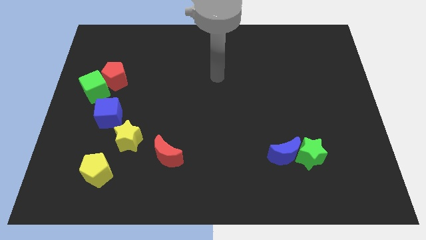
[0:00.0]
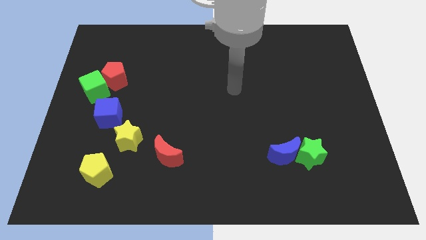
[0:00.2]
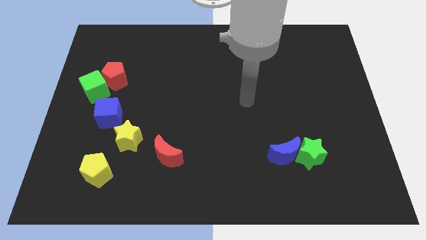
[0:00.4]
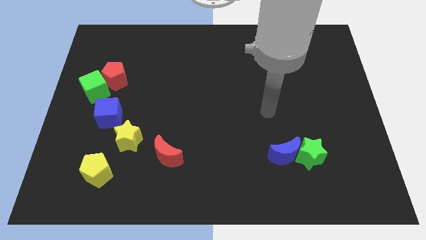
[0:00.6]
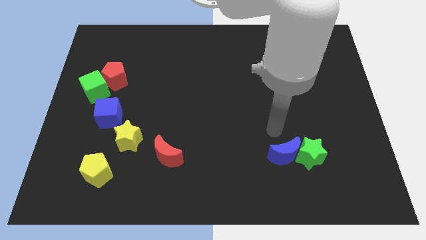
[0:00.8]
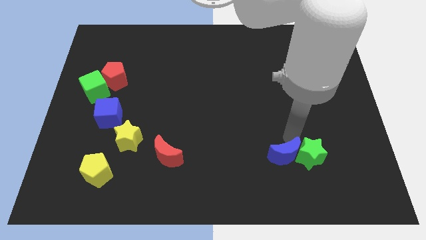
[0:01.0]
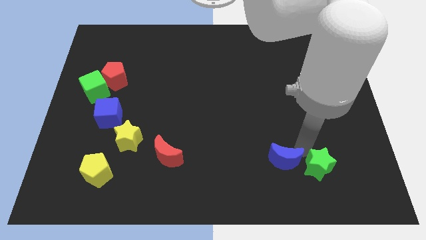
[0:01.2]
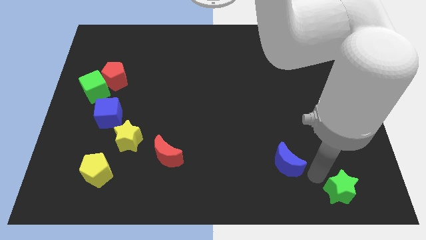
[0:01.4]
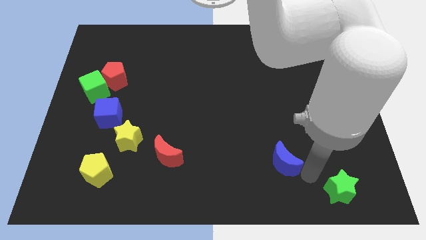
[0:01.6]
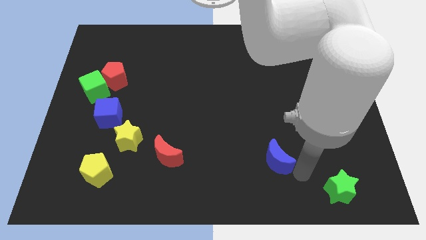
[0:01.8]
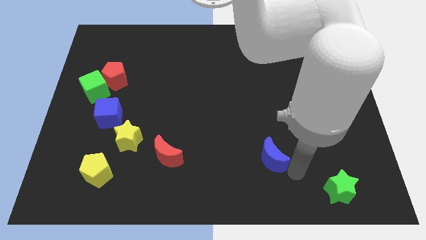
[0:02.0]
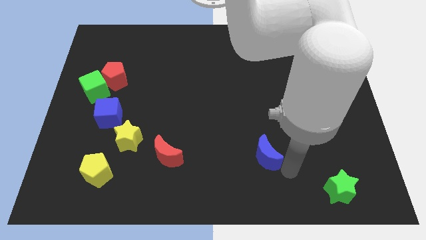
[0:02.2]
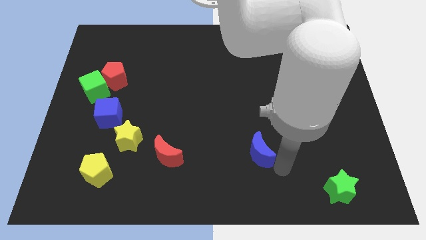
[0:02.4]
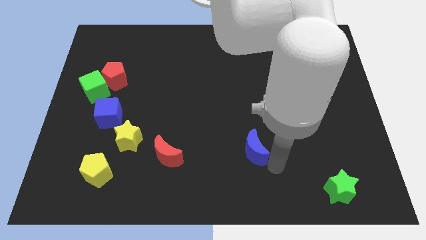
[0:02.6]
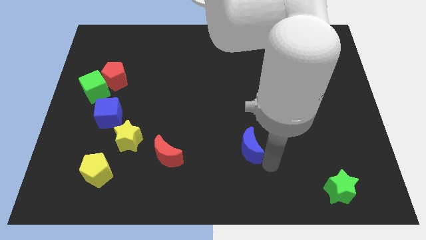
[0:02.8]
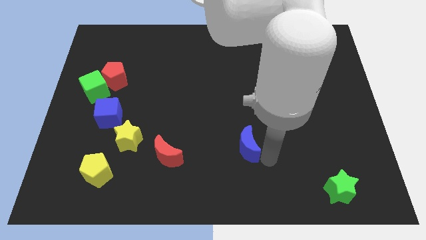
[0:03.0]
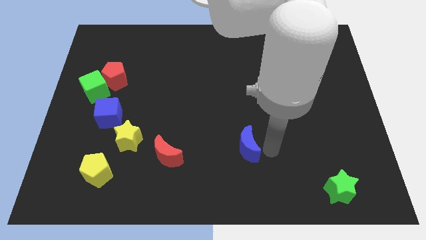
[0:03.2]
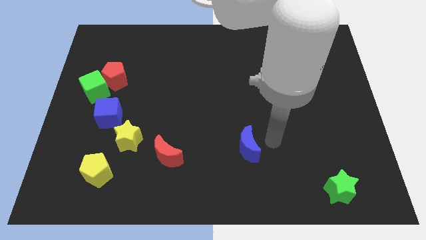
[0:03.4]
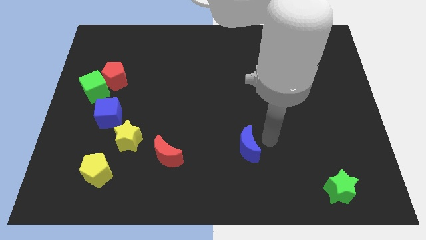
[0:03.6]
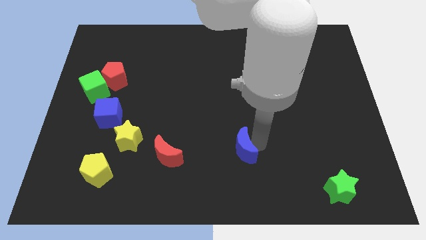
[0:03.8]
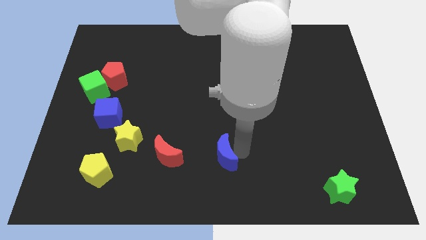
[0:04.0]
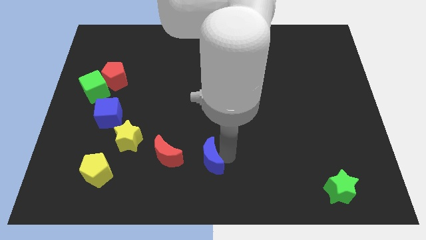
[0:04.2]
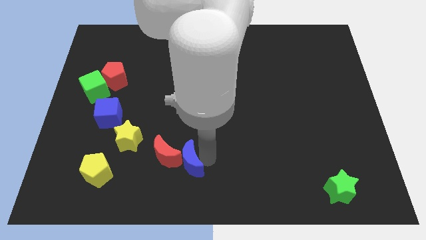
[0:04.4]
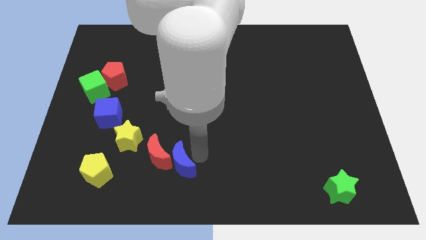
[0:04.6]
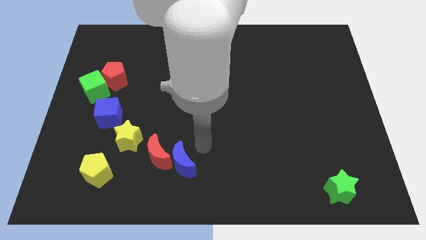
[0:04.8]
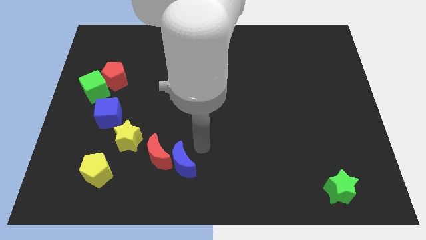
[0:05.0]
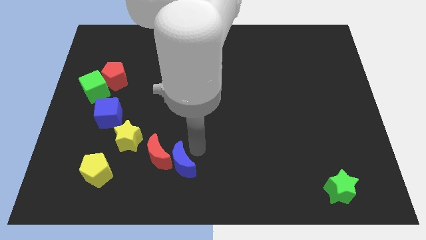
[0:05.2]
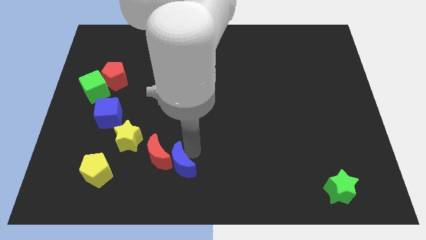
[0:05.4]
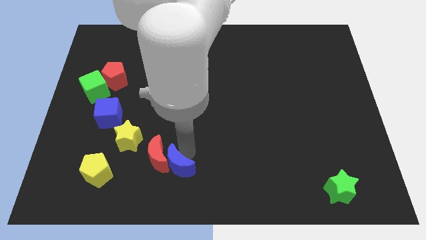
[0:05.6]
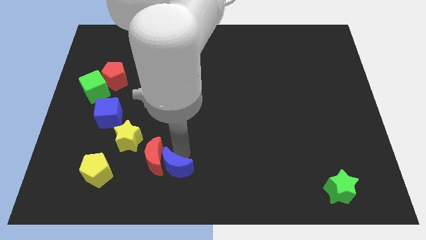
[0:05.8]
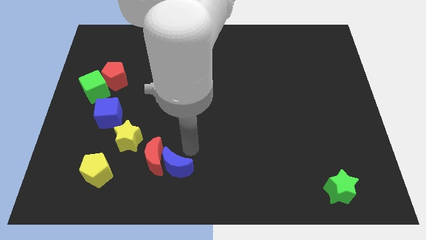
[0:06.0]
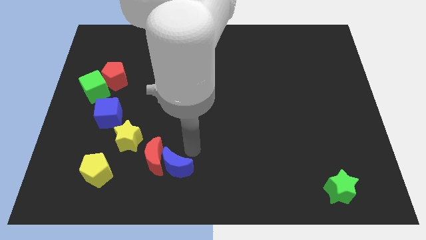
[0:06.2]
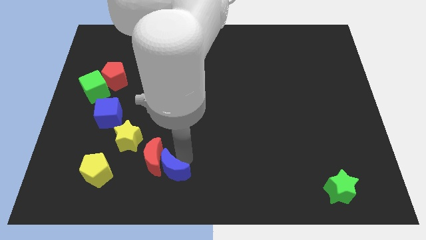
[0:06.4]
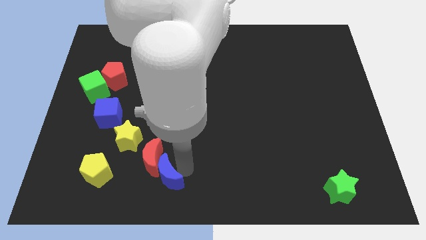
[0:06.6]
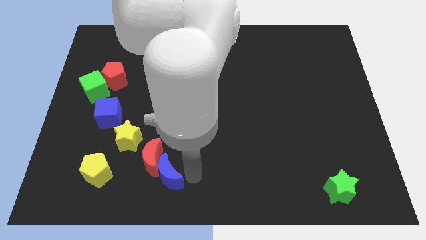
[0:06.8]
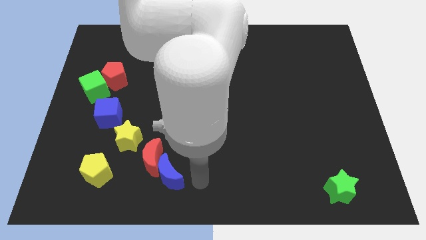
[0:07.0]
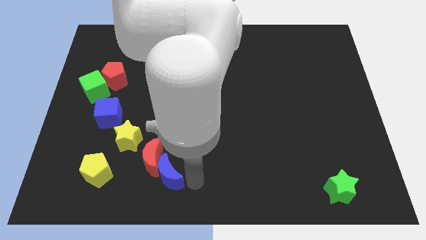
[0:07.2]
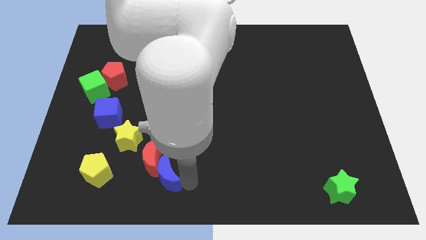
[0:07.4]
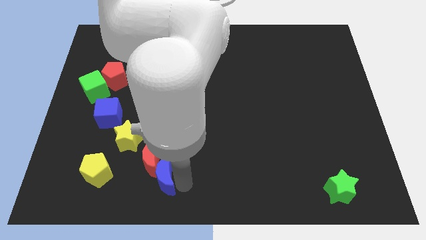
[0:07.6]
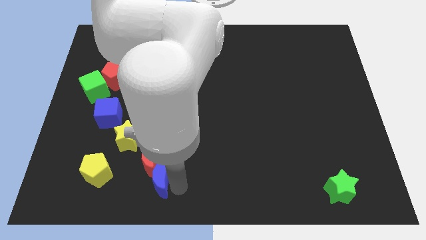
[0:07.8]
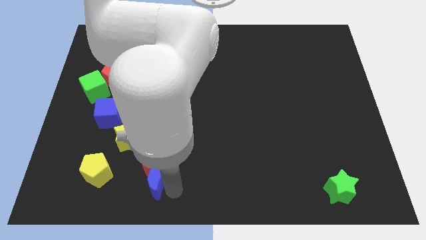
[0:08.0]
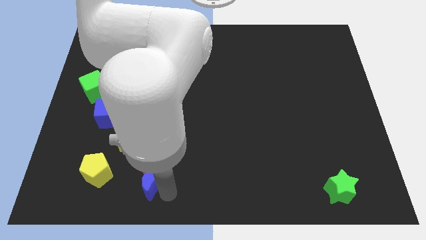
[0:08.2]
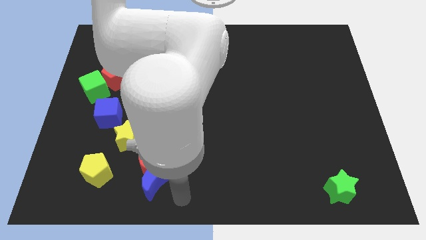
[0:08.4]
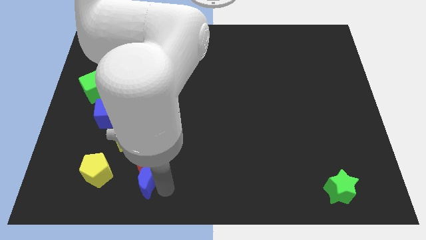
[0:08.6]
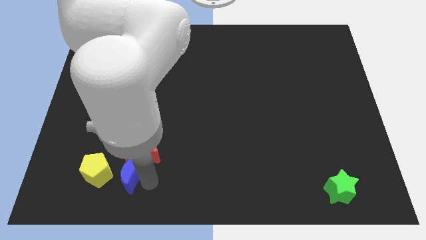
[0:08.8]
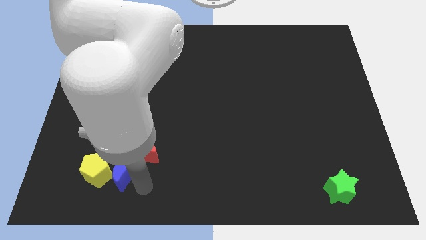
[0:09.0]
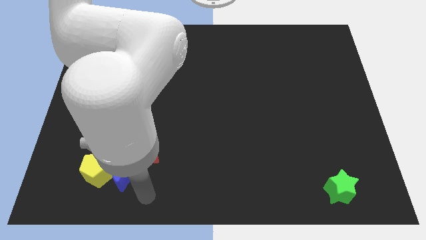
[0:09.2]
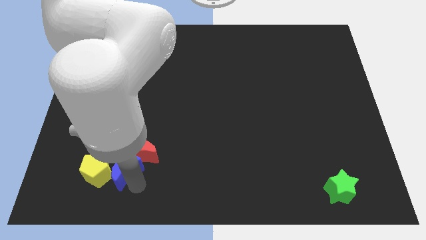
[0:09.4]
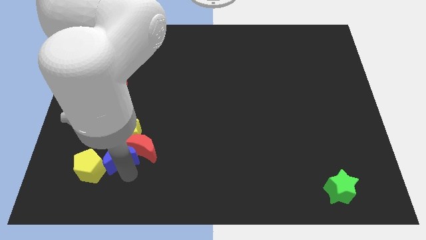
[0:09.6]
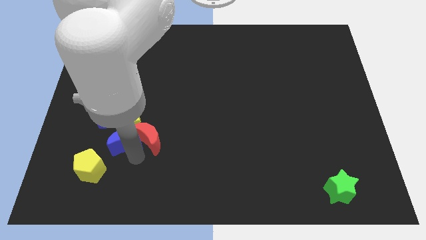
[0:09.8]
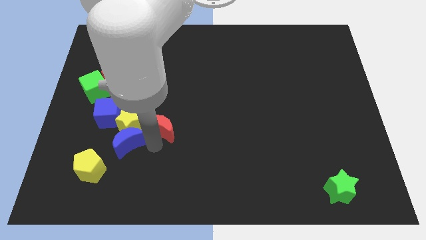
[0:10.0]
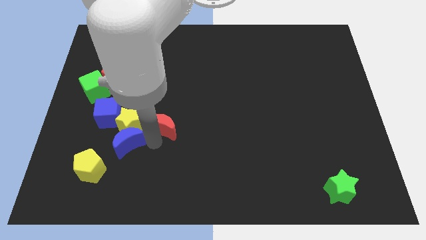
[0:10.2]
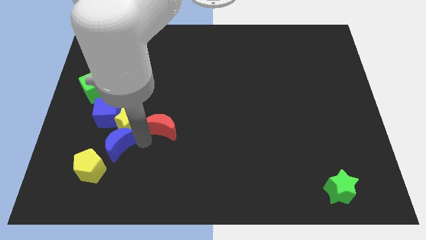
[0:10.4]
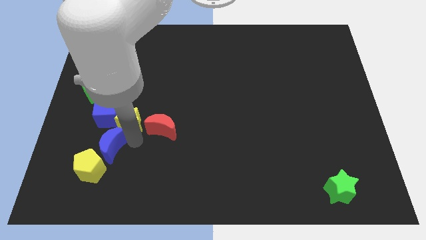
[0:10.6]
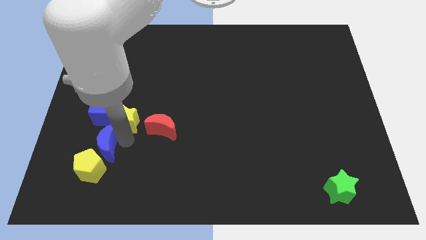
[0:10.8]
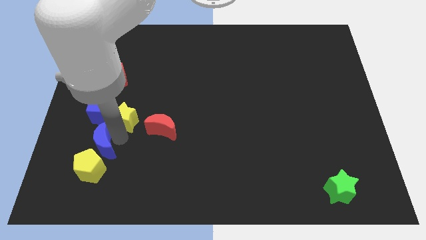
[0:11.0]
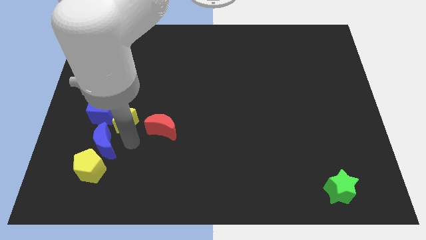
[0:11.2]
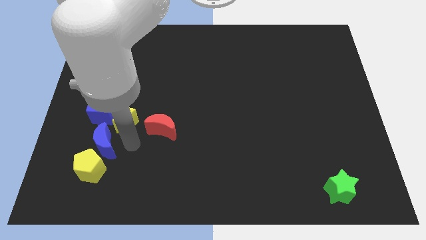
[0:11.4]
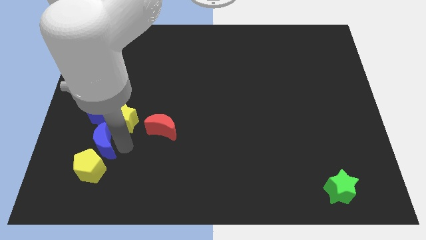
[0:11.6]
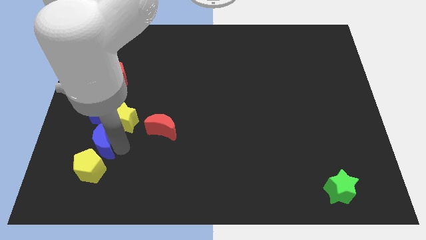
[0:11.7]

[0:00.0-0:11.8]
move the blue moon to the top left side of the yellow pentagon

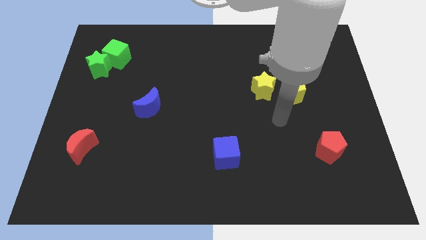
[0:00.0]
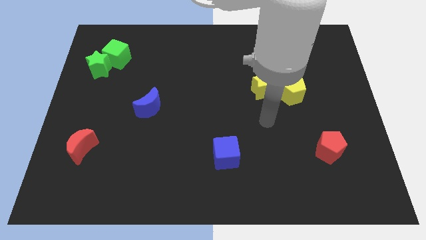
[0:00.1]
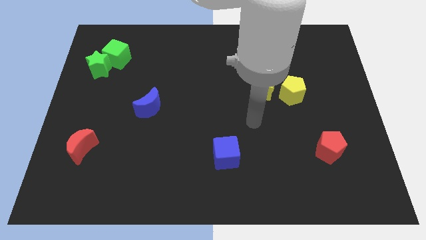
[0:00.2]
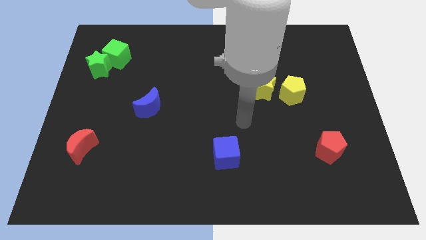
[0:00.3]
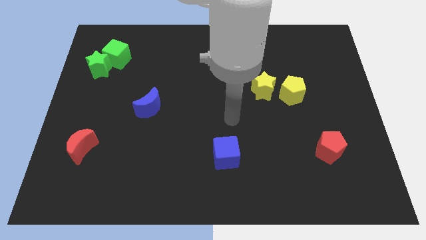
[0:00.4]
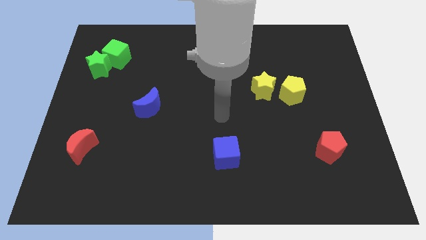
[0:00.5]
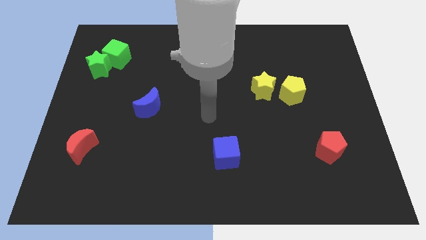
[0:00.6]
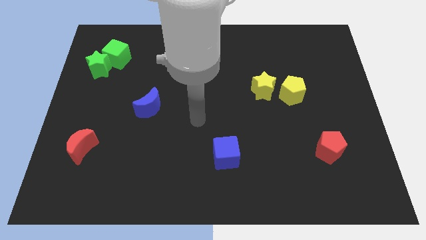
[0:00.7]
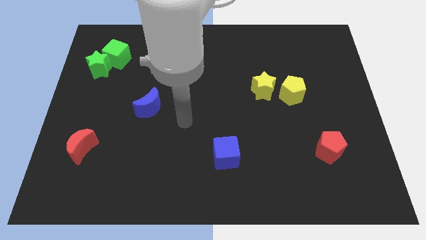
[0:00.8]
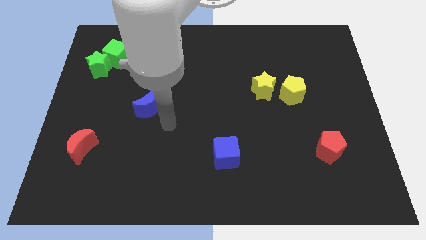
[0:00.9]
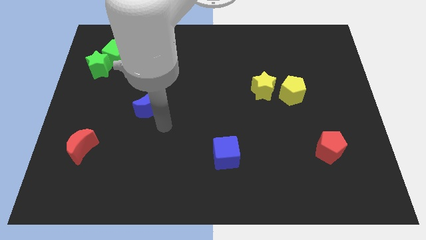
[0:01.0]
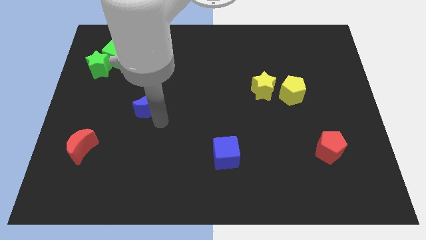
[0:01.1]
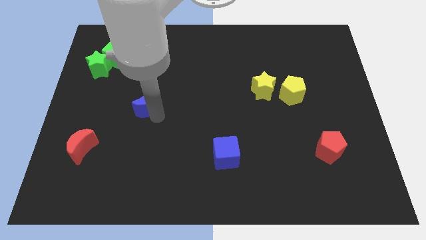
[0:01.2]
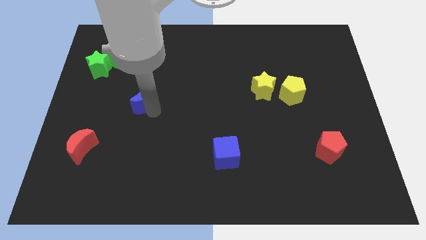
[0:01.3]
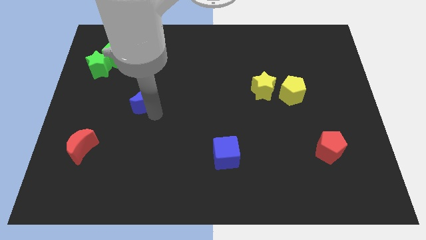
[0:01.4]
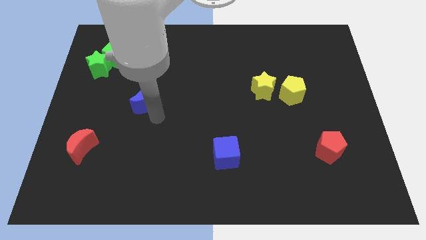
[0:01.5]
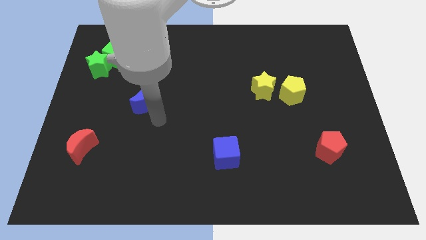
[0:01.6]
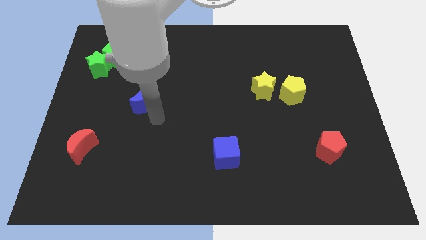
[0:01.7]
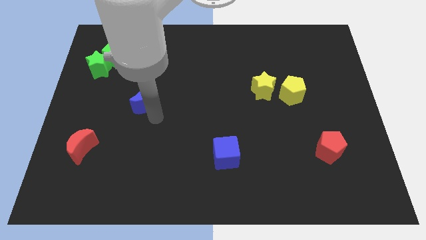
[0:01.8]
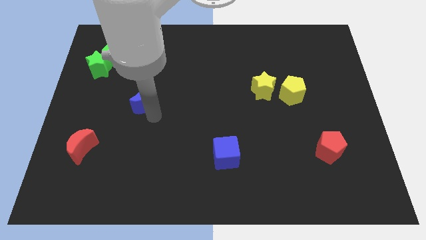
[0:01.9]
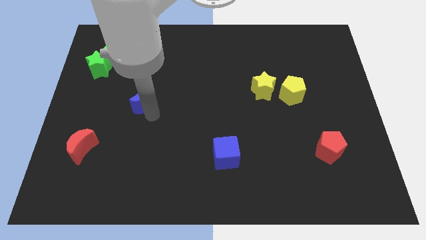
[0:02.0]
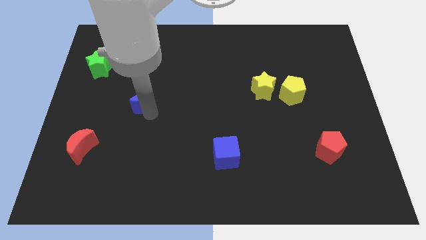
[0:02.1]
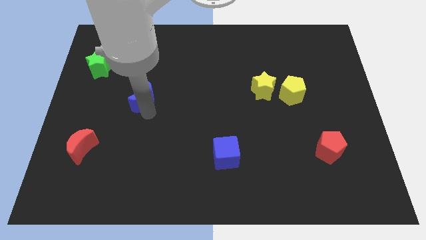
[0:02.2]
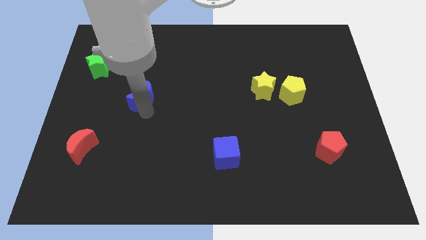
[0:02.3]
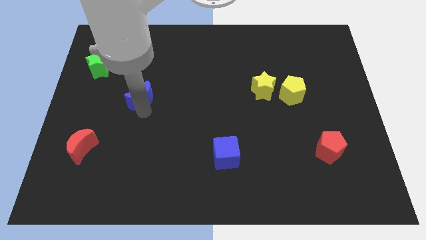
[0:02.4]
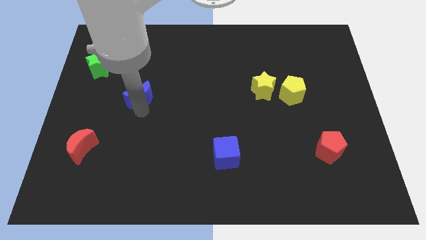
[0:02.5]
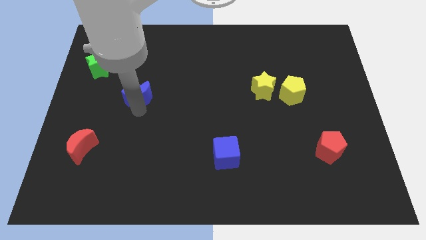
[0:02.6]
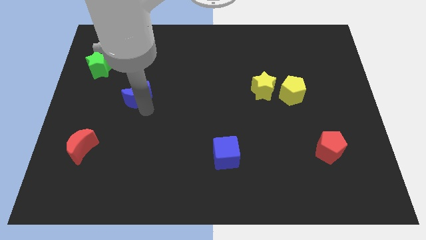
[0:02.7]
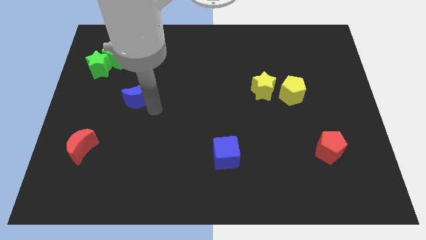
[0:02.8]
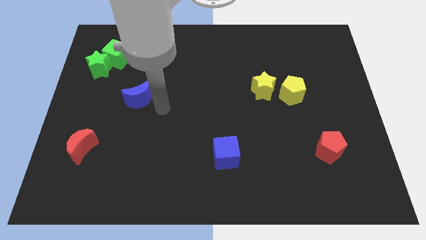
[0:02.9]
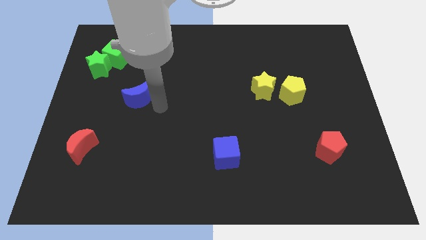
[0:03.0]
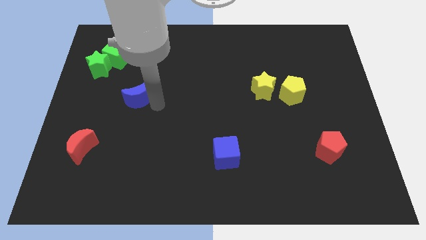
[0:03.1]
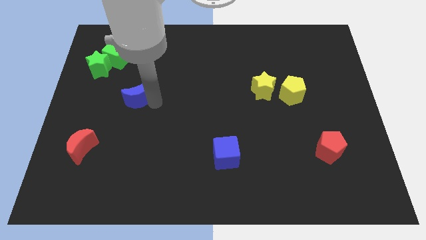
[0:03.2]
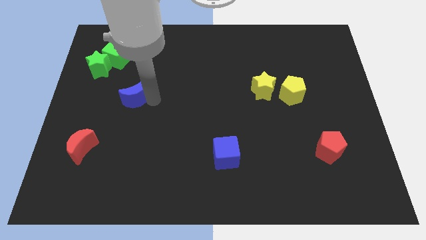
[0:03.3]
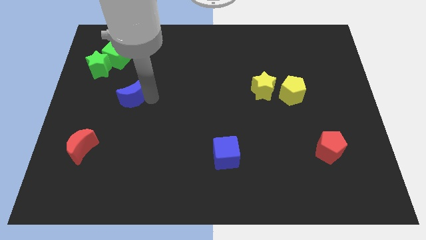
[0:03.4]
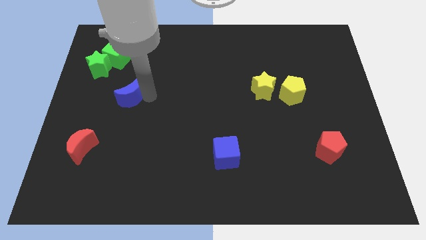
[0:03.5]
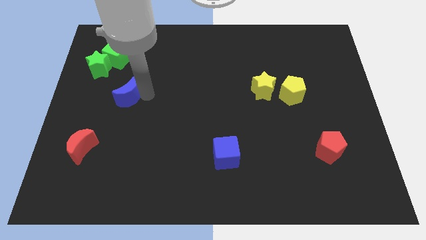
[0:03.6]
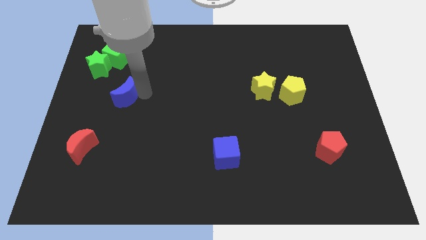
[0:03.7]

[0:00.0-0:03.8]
put the blue moon below the green cube
